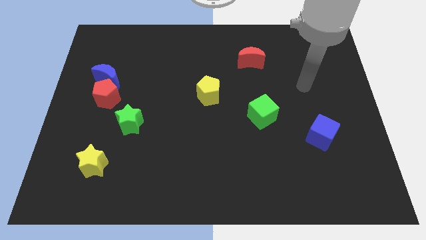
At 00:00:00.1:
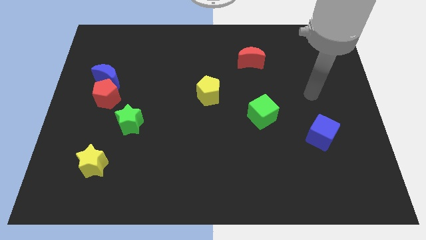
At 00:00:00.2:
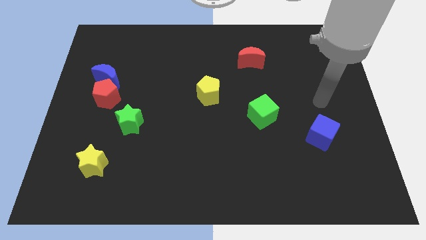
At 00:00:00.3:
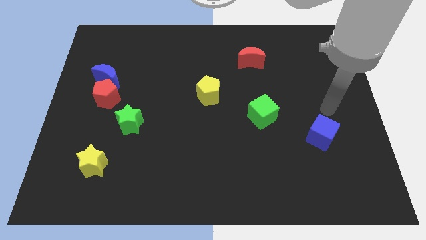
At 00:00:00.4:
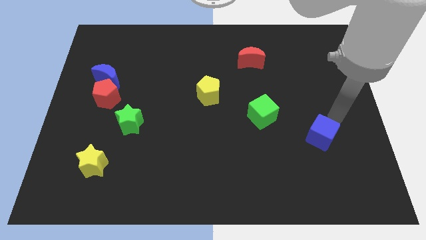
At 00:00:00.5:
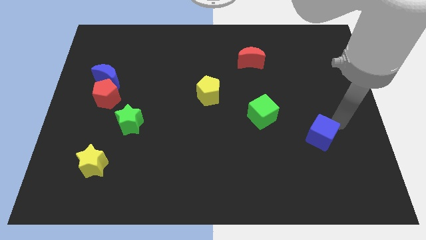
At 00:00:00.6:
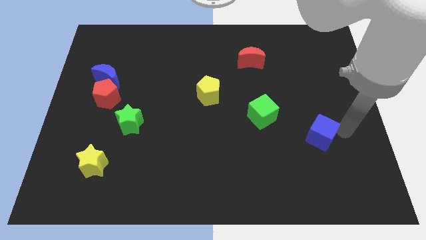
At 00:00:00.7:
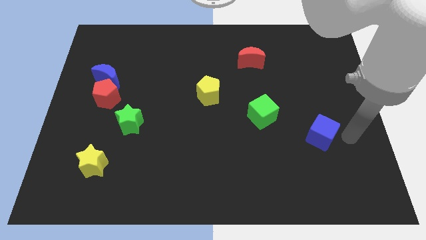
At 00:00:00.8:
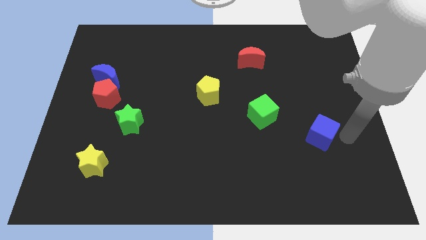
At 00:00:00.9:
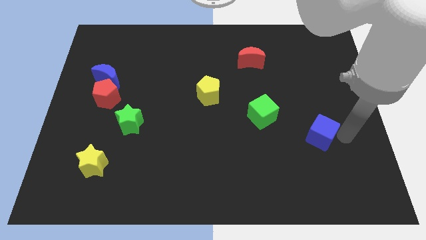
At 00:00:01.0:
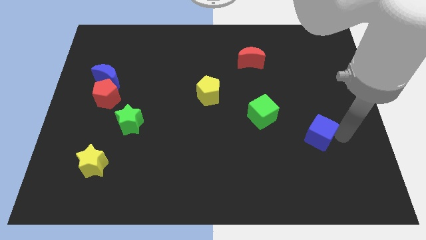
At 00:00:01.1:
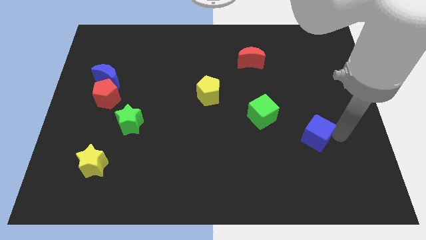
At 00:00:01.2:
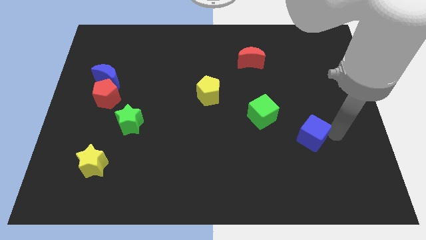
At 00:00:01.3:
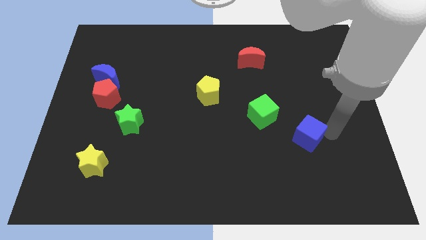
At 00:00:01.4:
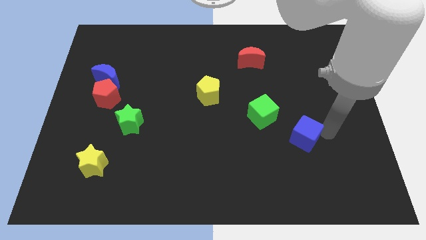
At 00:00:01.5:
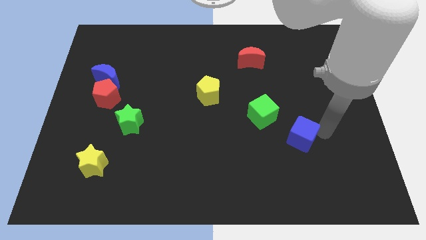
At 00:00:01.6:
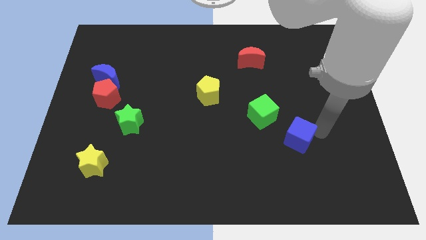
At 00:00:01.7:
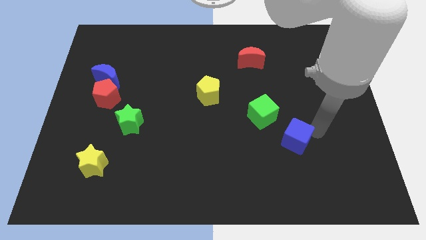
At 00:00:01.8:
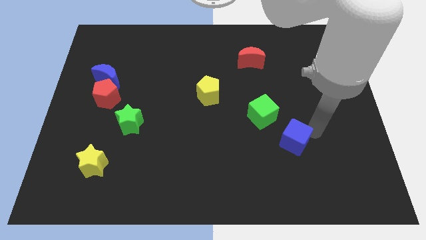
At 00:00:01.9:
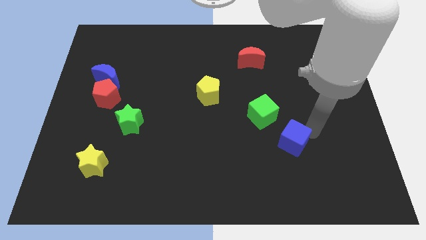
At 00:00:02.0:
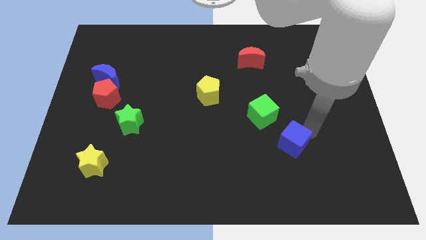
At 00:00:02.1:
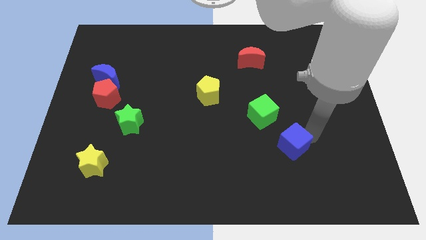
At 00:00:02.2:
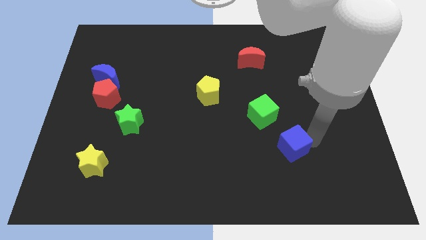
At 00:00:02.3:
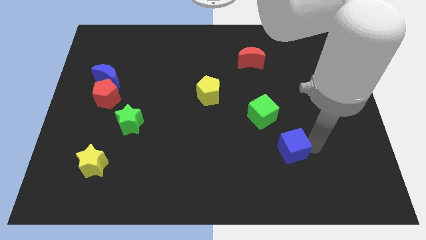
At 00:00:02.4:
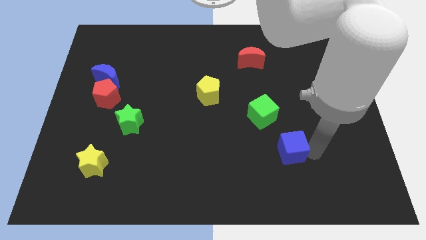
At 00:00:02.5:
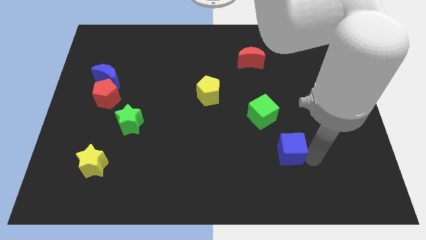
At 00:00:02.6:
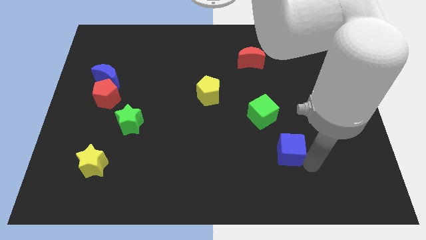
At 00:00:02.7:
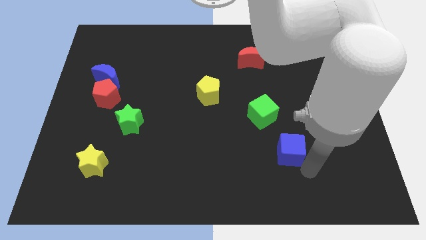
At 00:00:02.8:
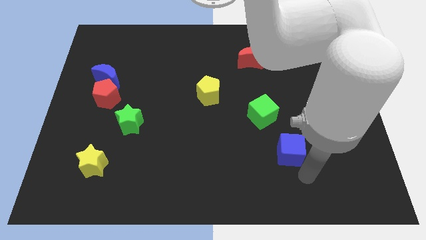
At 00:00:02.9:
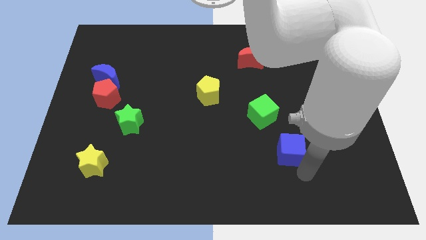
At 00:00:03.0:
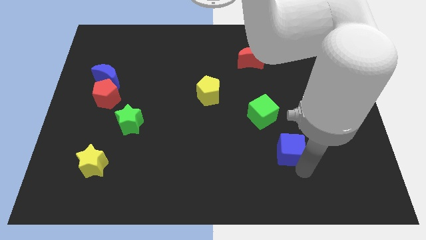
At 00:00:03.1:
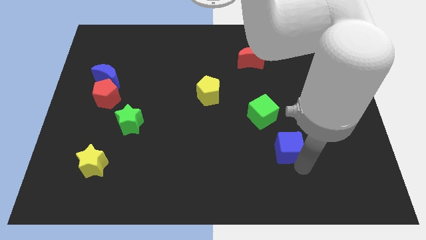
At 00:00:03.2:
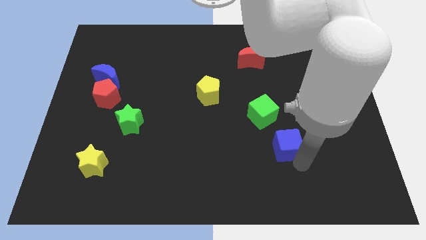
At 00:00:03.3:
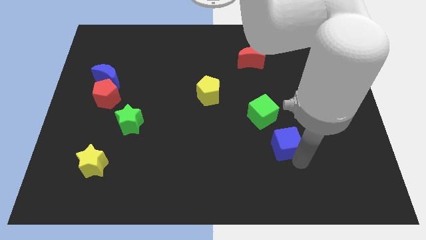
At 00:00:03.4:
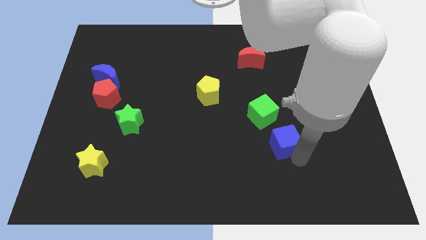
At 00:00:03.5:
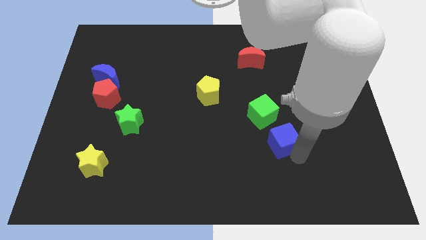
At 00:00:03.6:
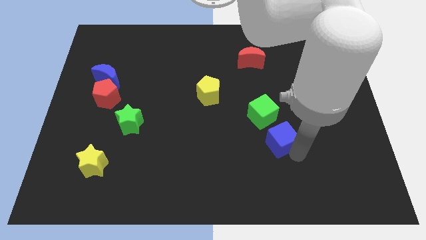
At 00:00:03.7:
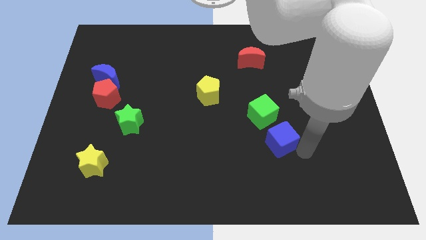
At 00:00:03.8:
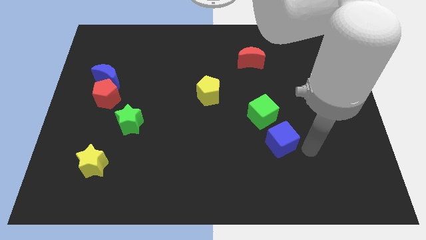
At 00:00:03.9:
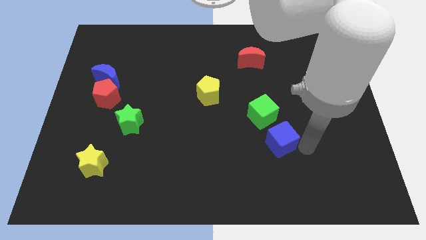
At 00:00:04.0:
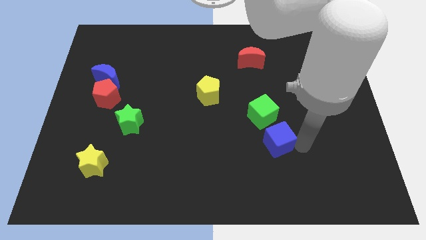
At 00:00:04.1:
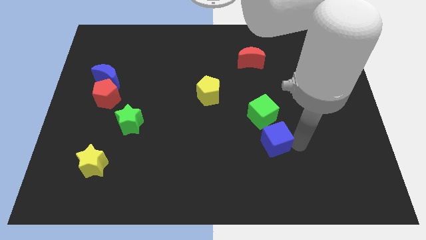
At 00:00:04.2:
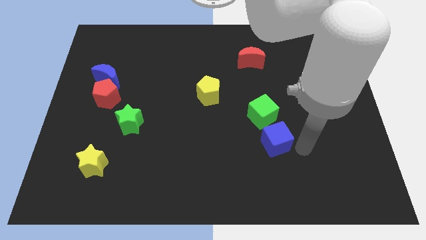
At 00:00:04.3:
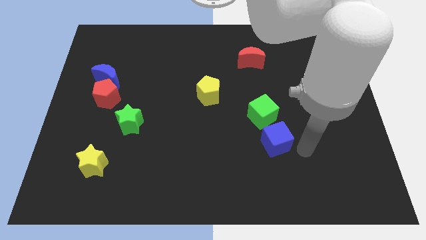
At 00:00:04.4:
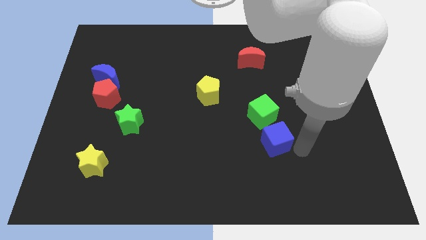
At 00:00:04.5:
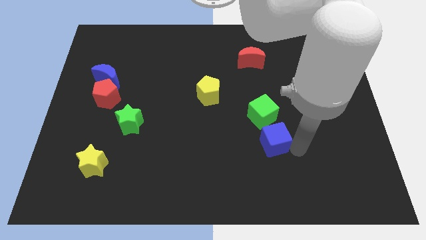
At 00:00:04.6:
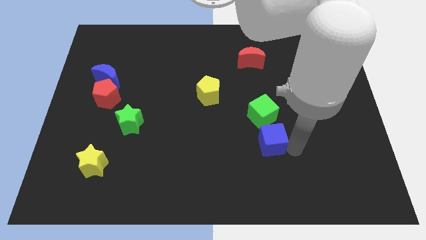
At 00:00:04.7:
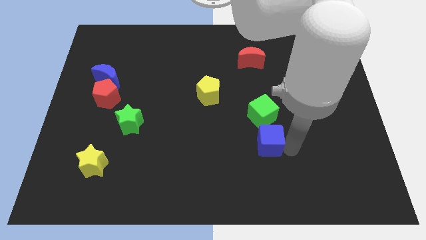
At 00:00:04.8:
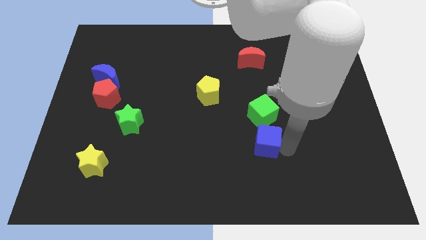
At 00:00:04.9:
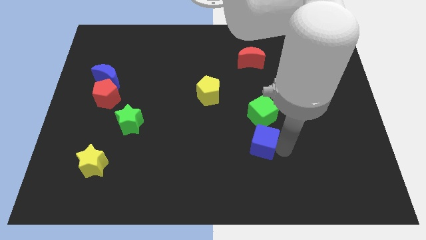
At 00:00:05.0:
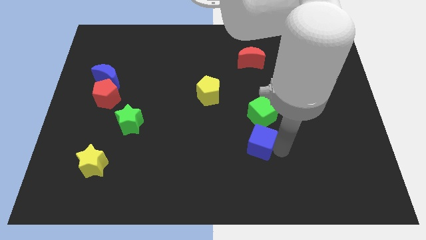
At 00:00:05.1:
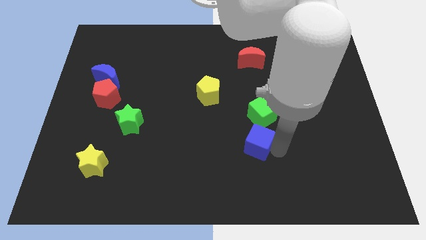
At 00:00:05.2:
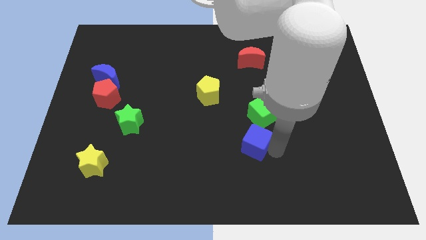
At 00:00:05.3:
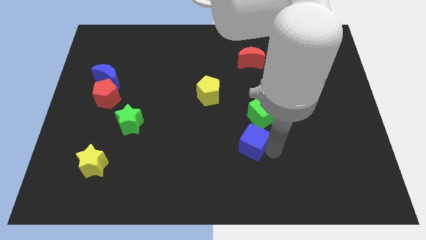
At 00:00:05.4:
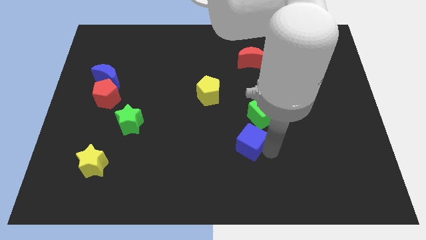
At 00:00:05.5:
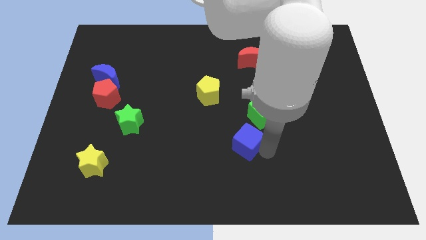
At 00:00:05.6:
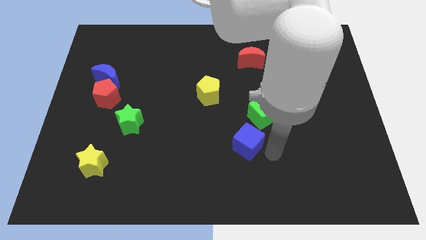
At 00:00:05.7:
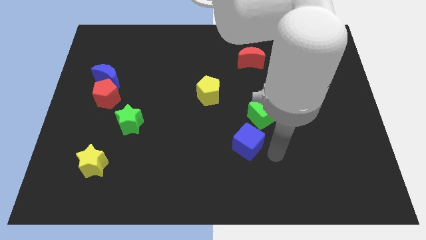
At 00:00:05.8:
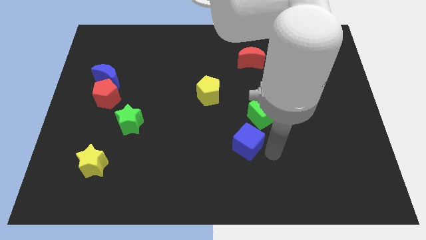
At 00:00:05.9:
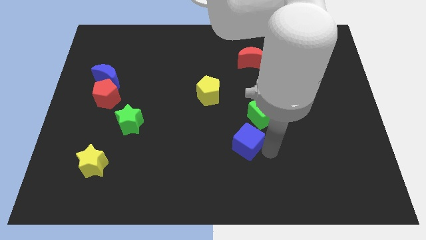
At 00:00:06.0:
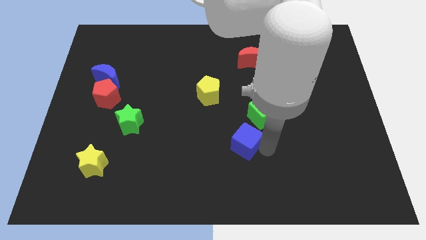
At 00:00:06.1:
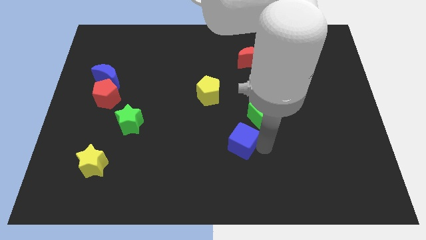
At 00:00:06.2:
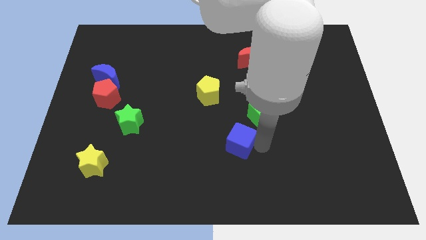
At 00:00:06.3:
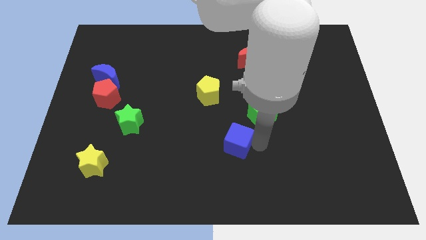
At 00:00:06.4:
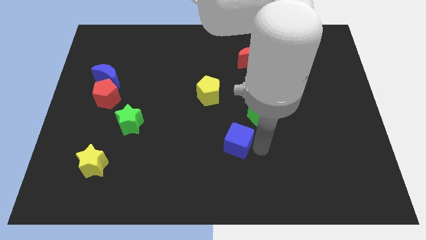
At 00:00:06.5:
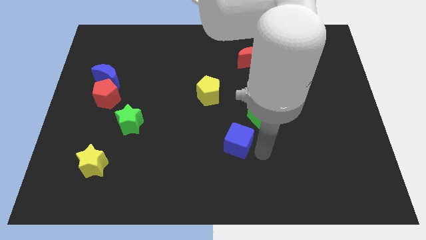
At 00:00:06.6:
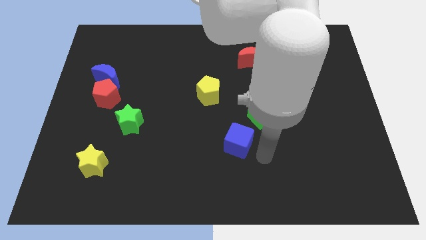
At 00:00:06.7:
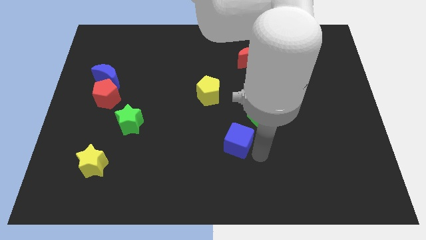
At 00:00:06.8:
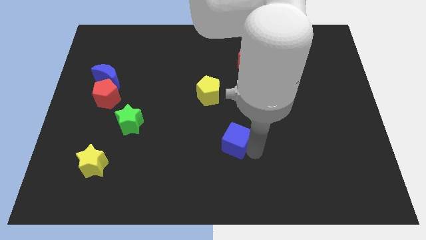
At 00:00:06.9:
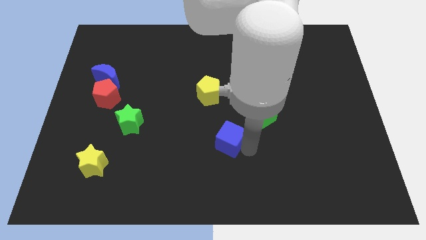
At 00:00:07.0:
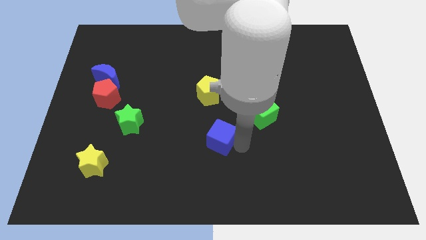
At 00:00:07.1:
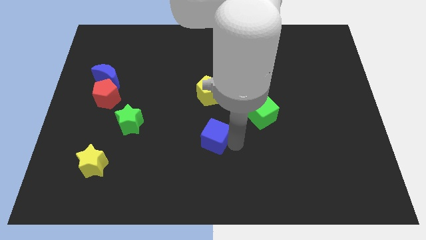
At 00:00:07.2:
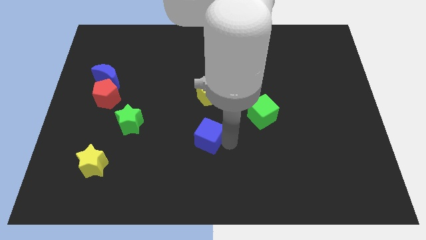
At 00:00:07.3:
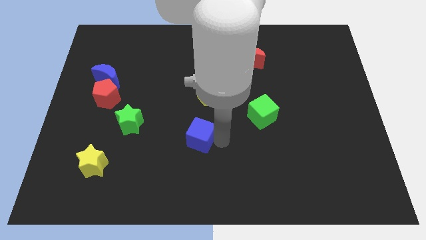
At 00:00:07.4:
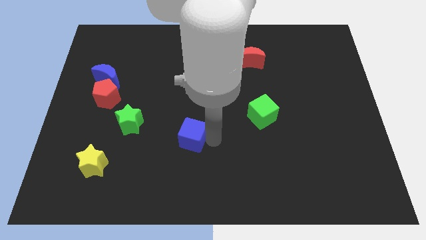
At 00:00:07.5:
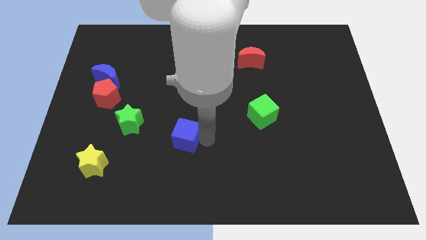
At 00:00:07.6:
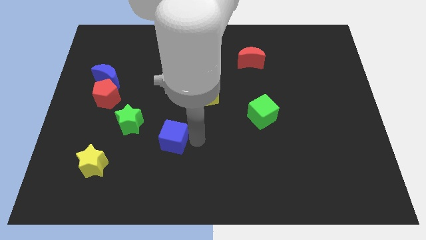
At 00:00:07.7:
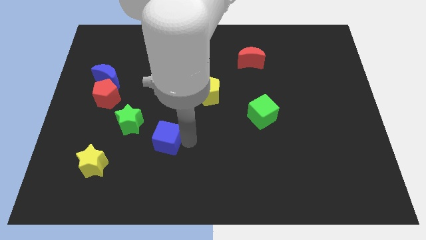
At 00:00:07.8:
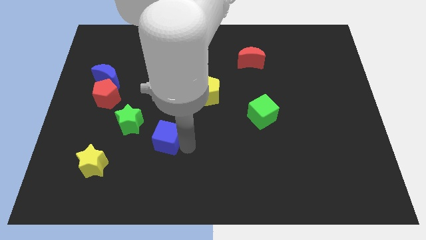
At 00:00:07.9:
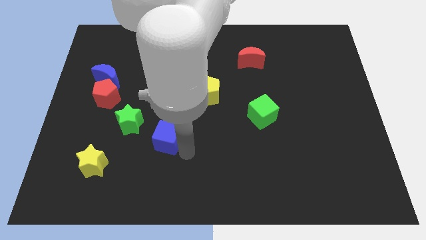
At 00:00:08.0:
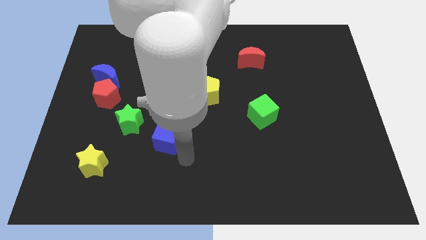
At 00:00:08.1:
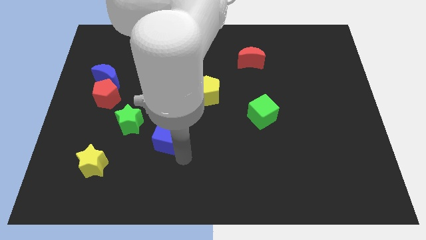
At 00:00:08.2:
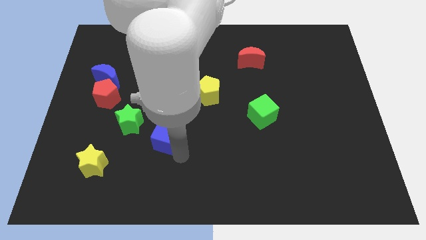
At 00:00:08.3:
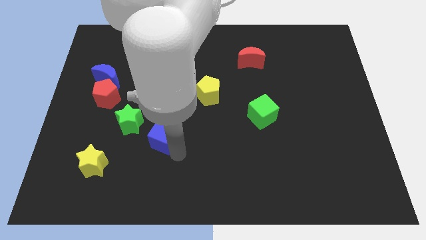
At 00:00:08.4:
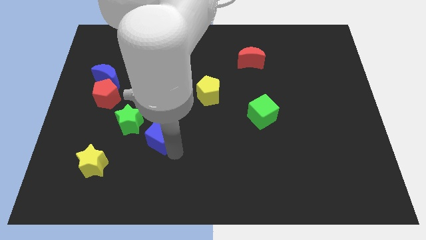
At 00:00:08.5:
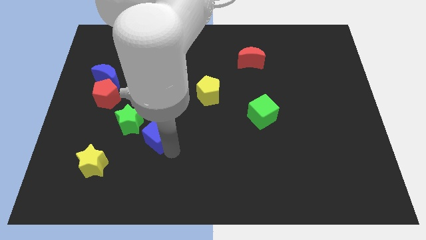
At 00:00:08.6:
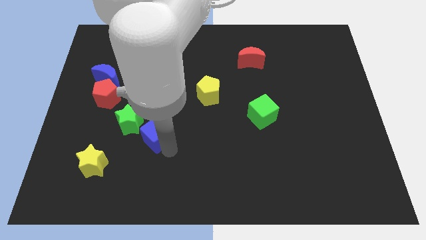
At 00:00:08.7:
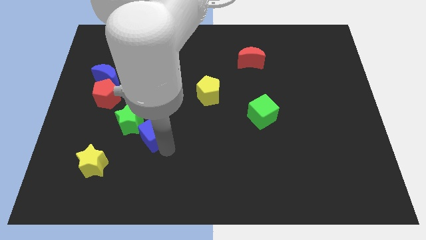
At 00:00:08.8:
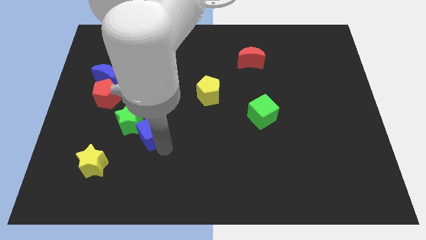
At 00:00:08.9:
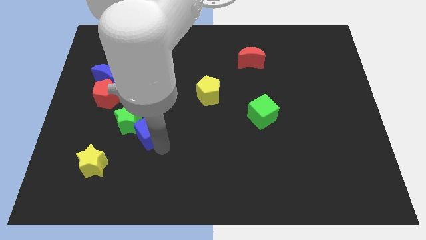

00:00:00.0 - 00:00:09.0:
slide the blue cube towards the green star
